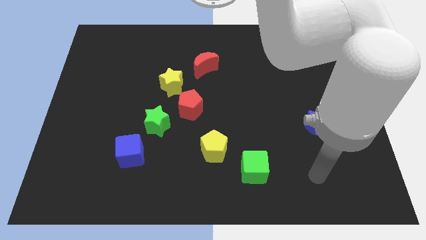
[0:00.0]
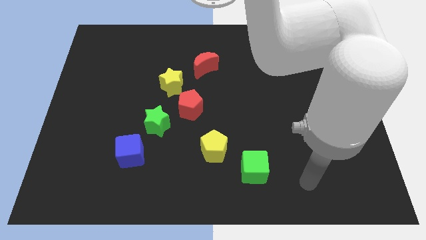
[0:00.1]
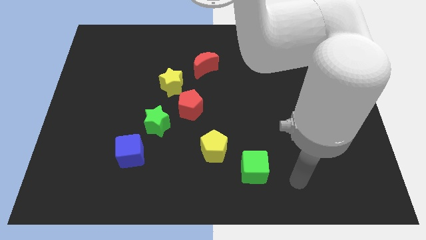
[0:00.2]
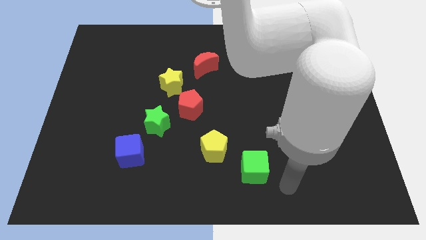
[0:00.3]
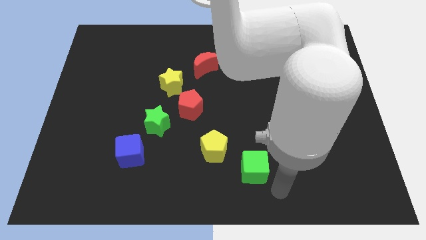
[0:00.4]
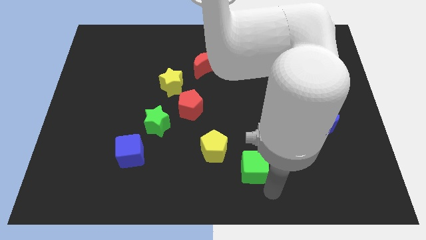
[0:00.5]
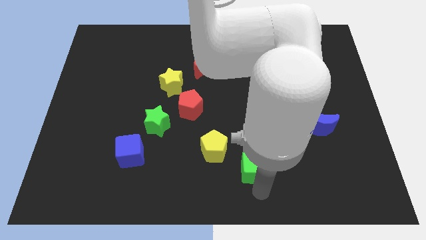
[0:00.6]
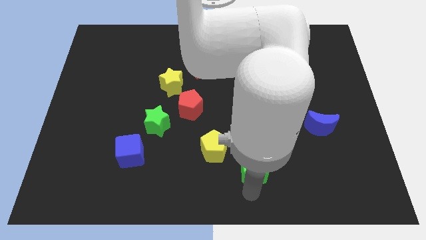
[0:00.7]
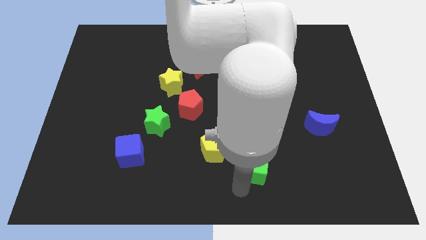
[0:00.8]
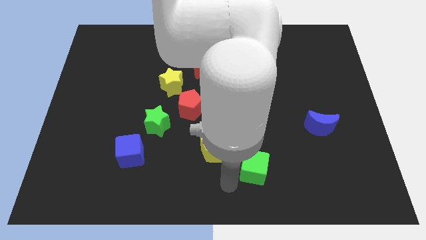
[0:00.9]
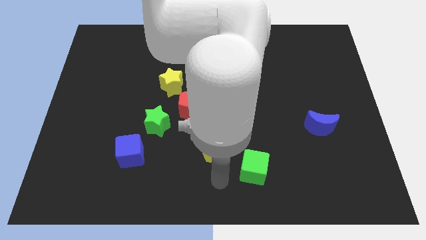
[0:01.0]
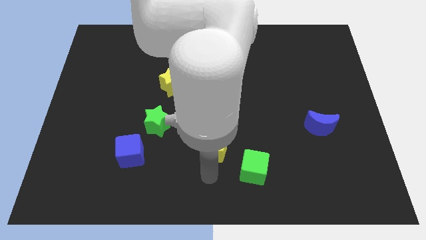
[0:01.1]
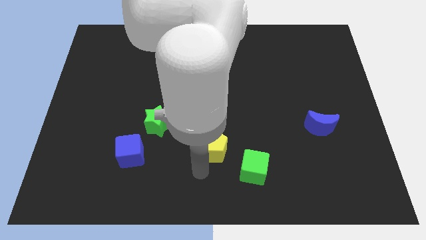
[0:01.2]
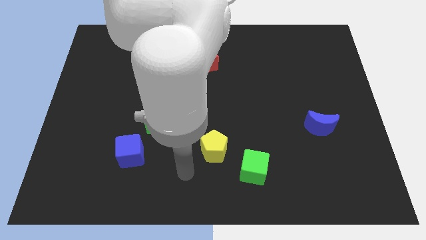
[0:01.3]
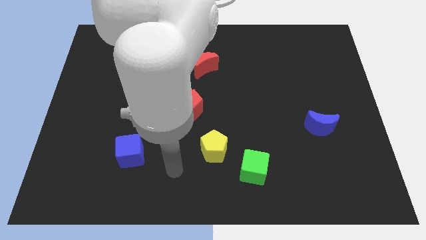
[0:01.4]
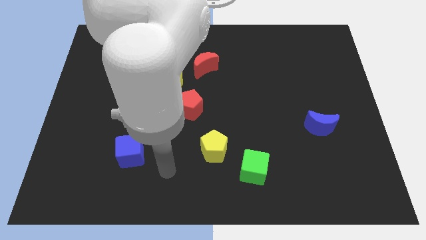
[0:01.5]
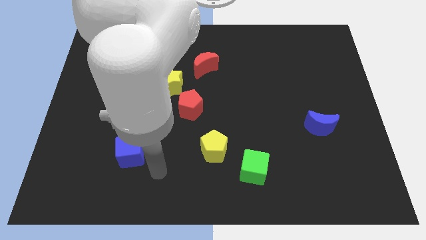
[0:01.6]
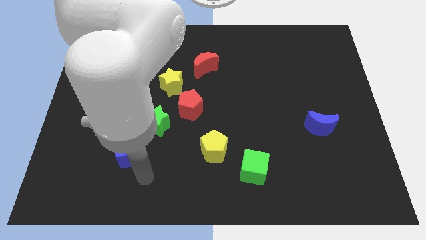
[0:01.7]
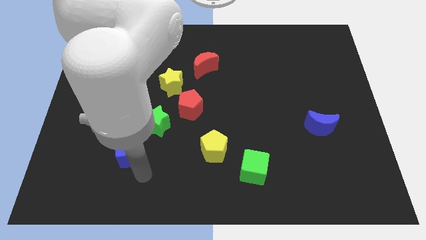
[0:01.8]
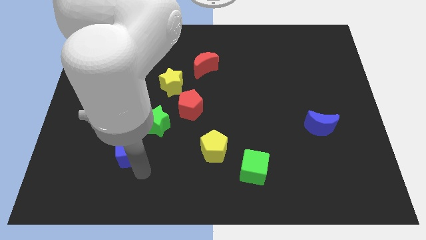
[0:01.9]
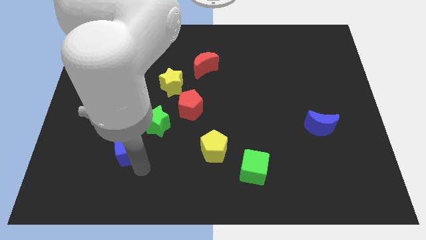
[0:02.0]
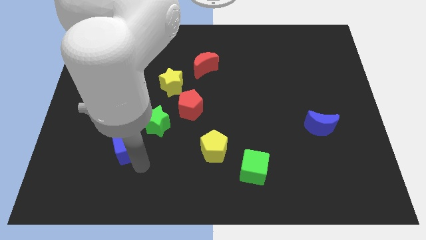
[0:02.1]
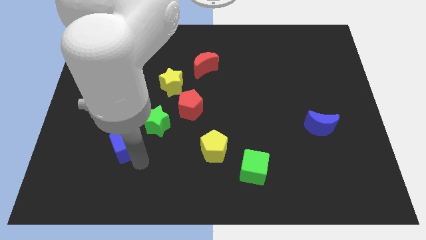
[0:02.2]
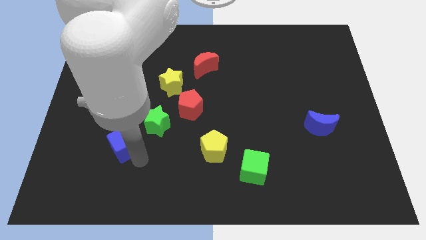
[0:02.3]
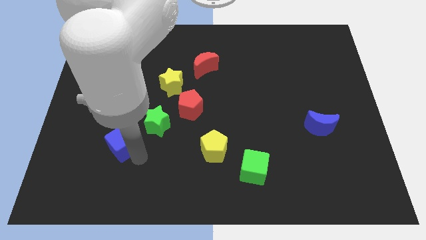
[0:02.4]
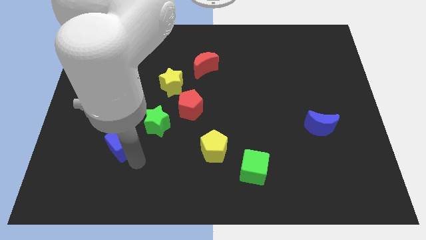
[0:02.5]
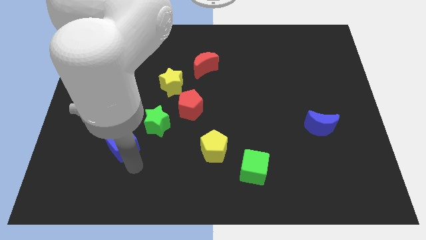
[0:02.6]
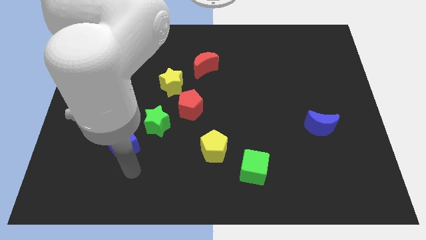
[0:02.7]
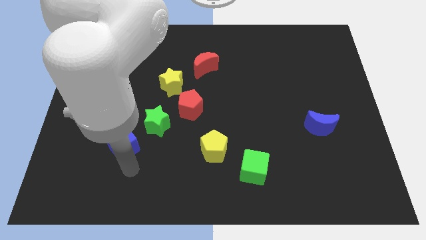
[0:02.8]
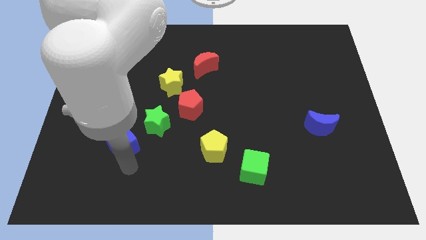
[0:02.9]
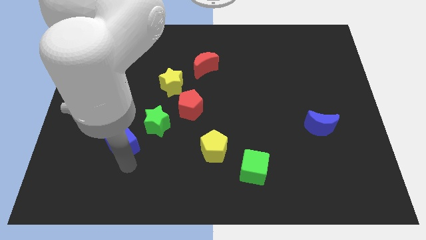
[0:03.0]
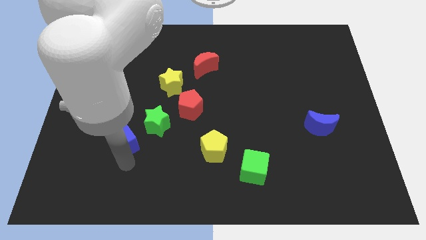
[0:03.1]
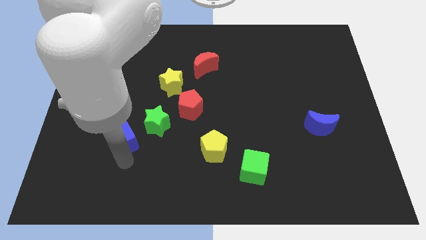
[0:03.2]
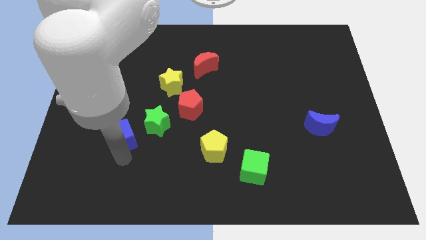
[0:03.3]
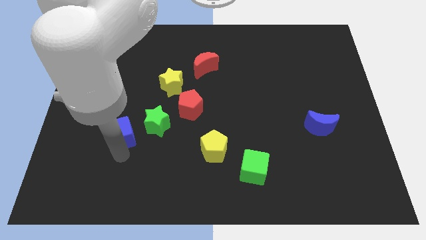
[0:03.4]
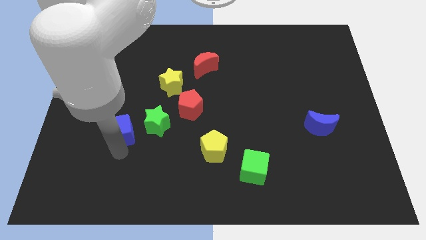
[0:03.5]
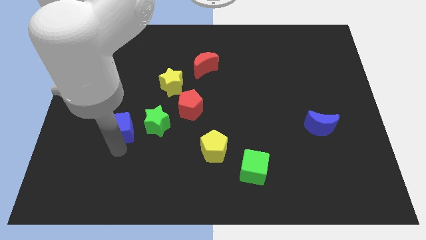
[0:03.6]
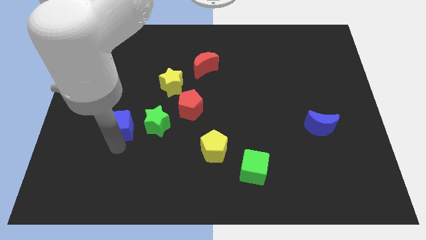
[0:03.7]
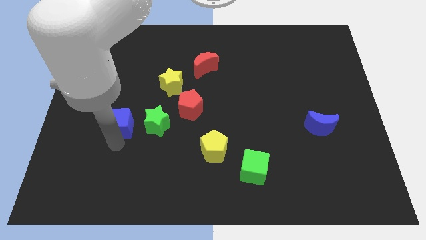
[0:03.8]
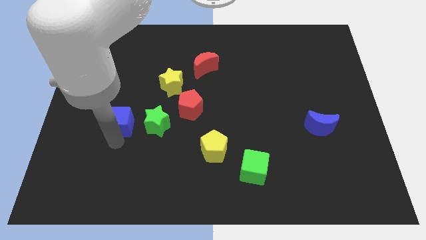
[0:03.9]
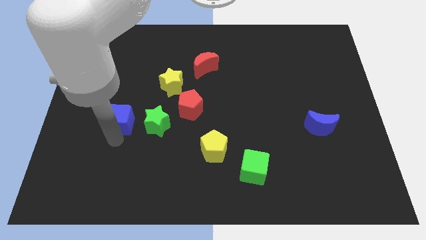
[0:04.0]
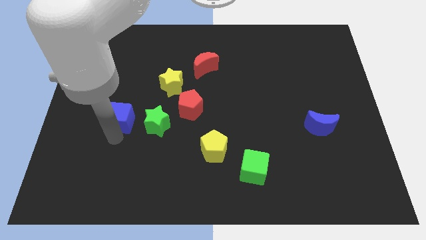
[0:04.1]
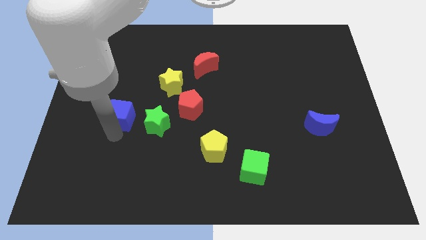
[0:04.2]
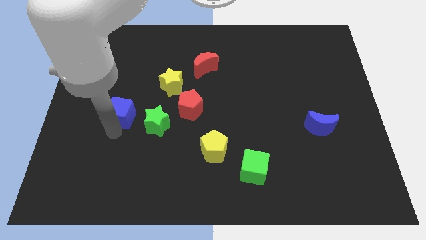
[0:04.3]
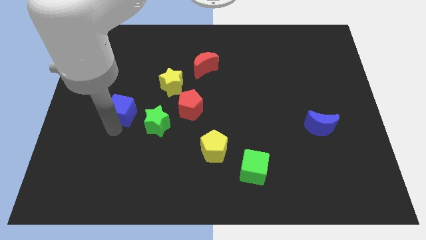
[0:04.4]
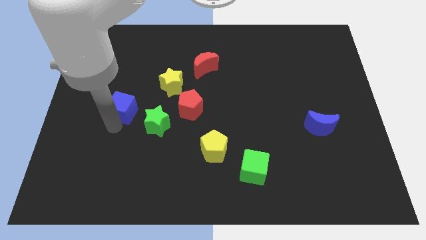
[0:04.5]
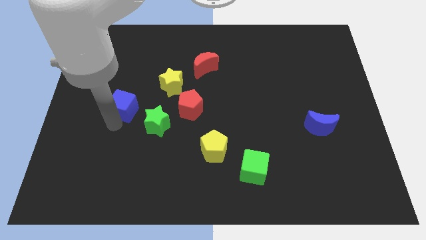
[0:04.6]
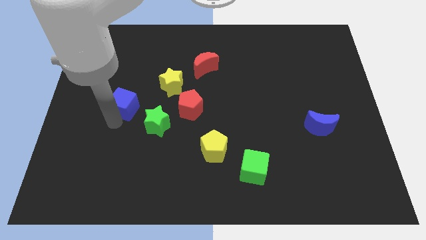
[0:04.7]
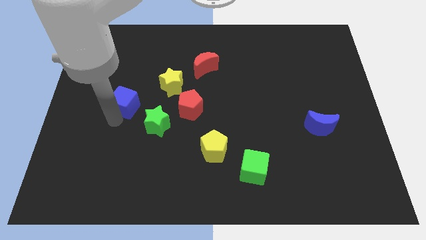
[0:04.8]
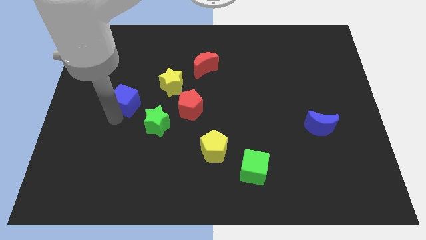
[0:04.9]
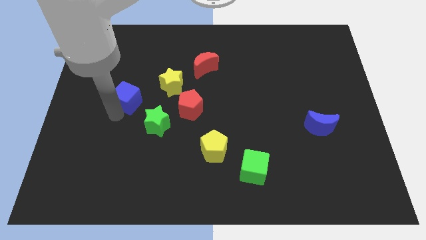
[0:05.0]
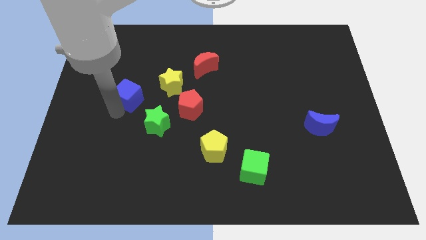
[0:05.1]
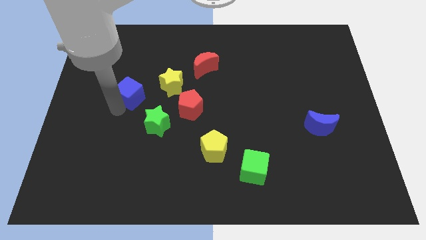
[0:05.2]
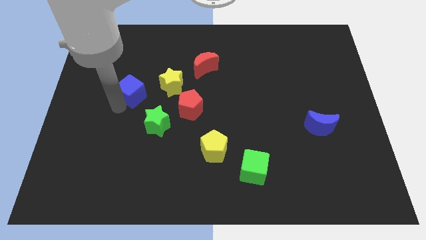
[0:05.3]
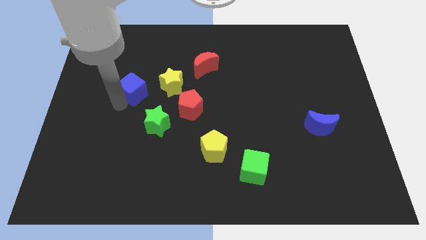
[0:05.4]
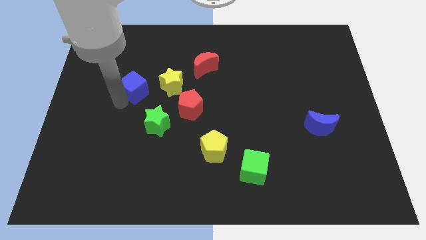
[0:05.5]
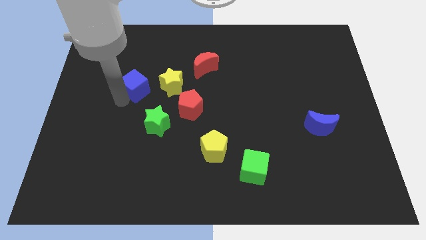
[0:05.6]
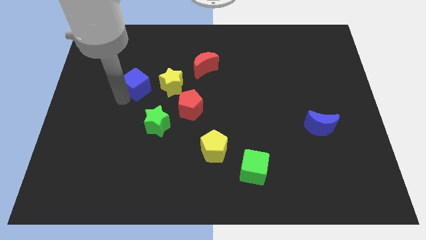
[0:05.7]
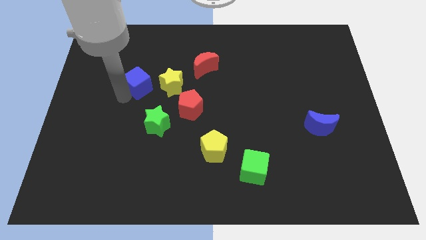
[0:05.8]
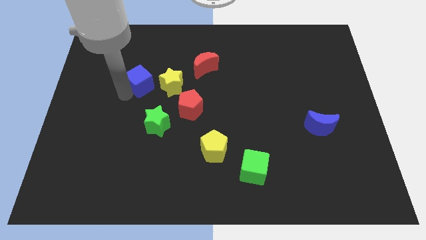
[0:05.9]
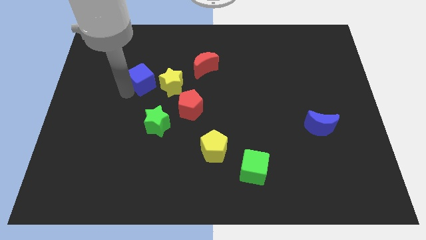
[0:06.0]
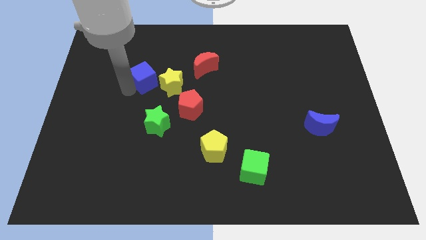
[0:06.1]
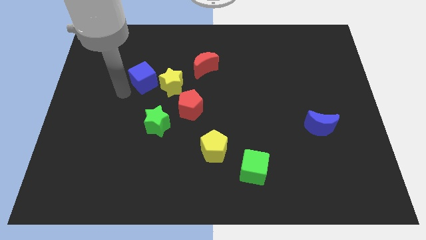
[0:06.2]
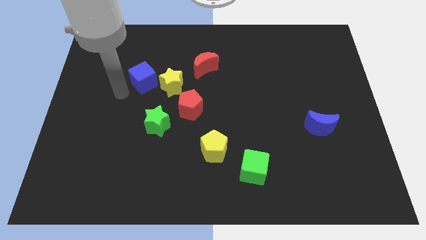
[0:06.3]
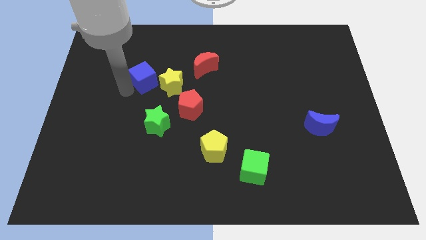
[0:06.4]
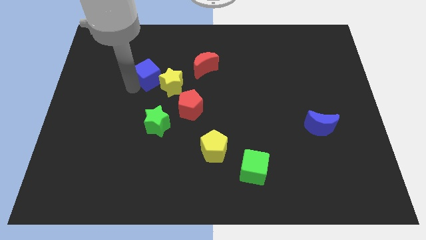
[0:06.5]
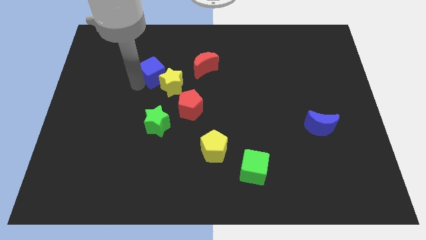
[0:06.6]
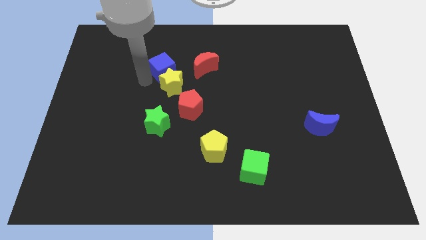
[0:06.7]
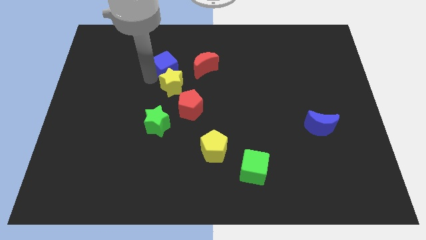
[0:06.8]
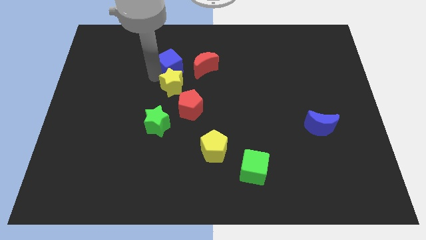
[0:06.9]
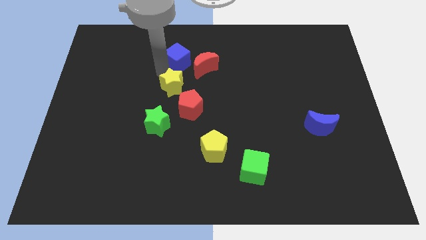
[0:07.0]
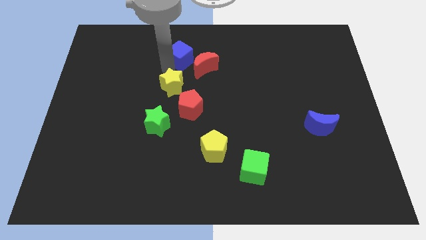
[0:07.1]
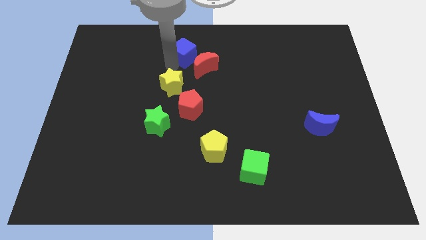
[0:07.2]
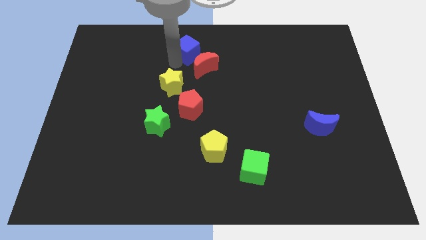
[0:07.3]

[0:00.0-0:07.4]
move the blue cube to the towards your base
